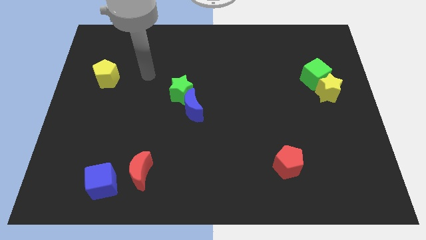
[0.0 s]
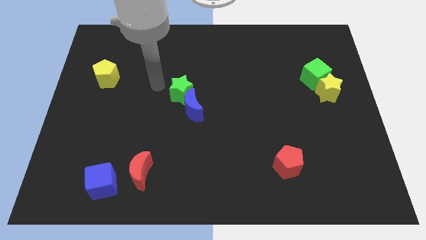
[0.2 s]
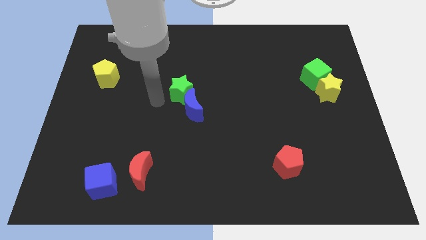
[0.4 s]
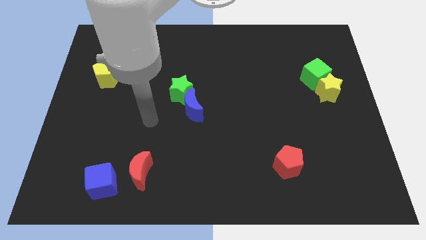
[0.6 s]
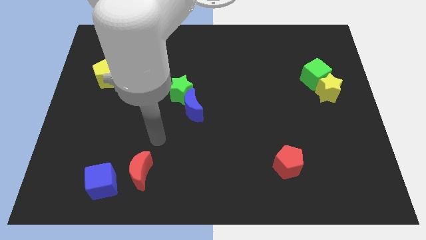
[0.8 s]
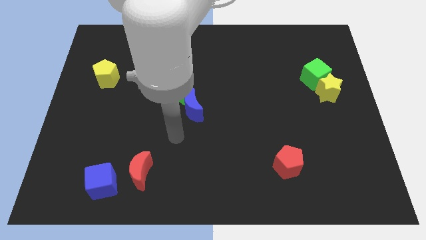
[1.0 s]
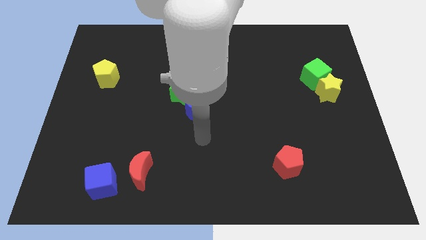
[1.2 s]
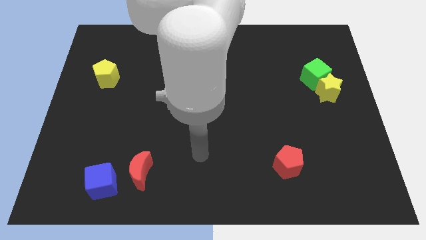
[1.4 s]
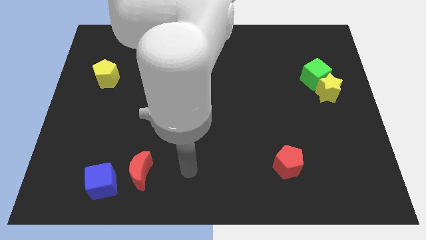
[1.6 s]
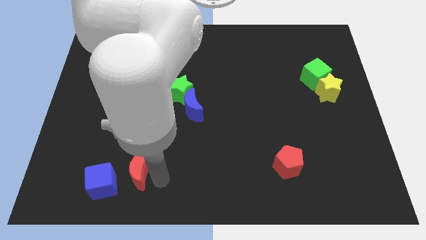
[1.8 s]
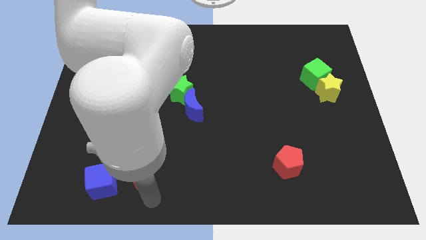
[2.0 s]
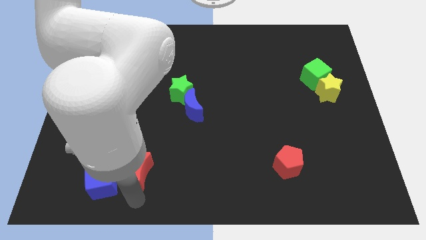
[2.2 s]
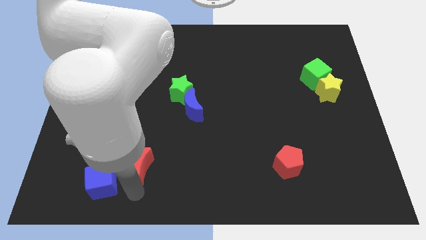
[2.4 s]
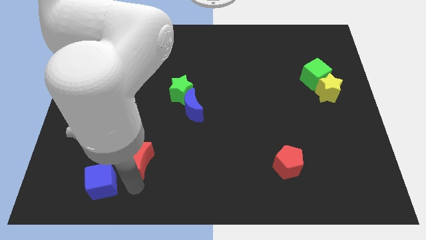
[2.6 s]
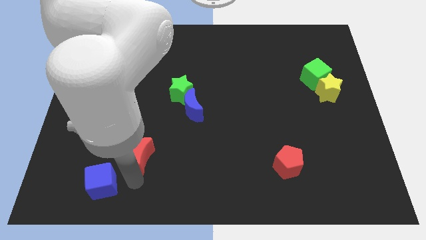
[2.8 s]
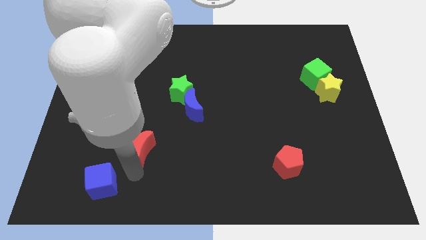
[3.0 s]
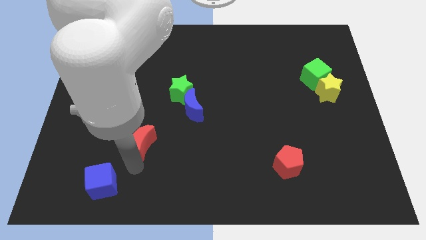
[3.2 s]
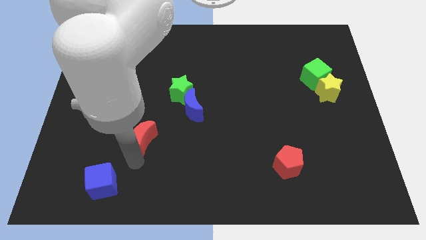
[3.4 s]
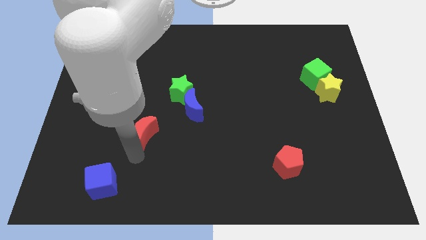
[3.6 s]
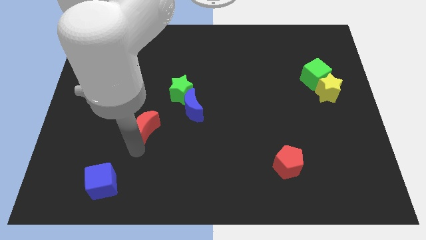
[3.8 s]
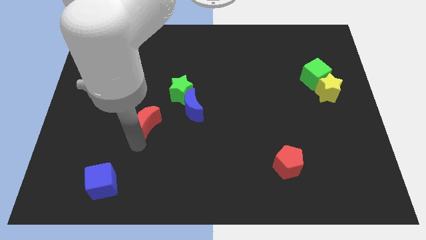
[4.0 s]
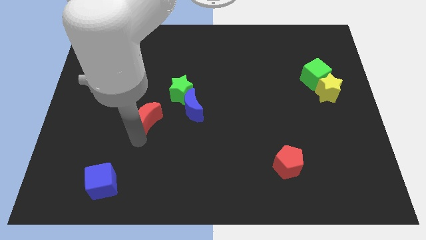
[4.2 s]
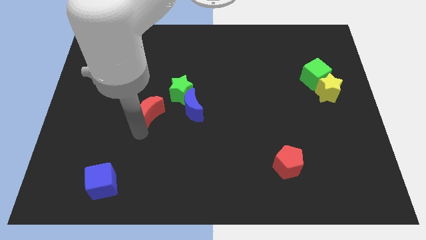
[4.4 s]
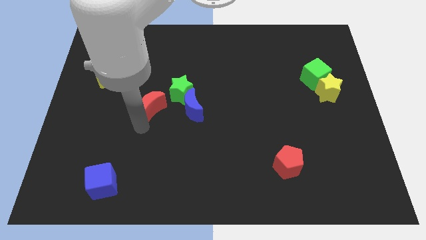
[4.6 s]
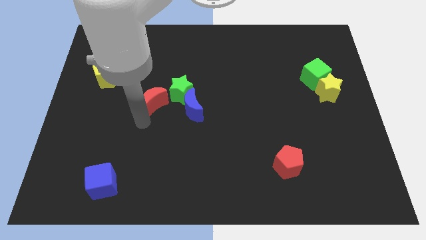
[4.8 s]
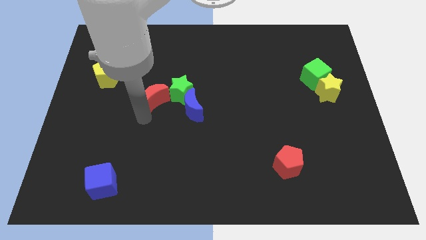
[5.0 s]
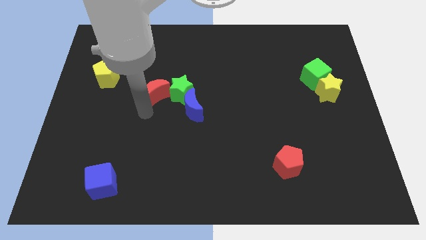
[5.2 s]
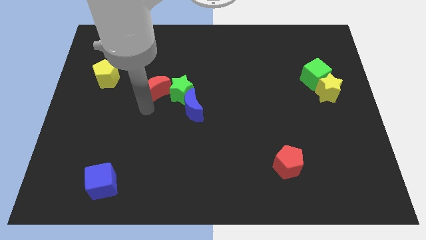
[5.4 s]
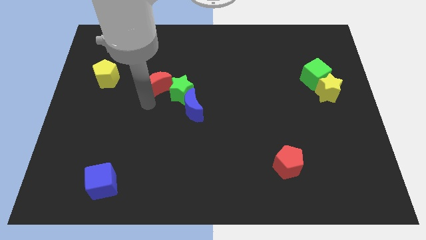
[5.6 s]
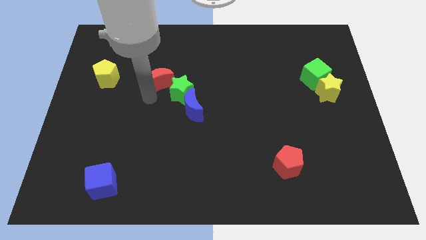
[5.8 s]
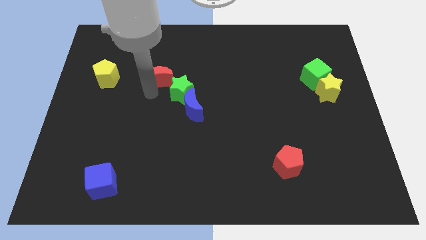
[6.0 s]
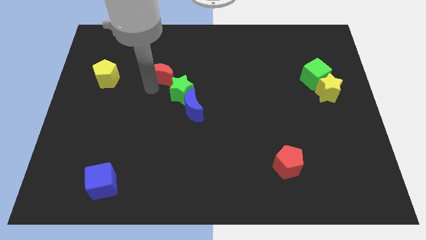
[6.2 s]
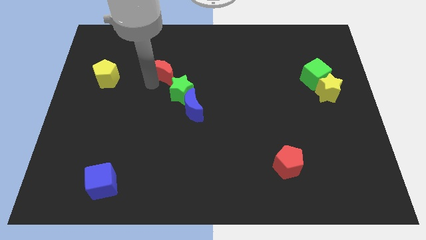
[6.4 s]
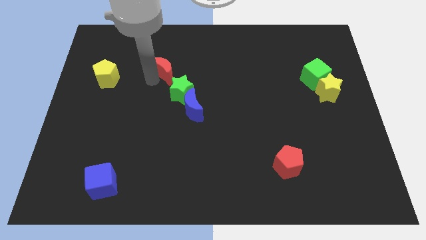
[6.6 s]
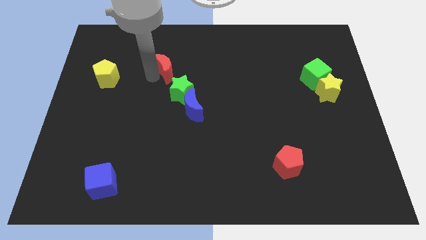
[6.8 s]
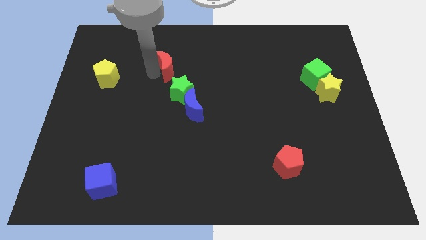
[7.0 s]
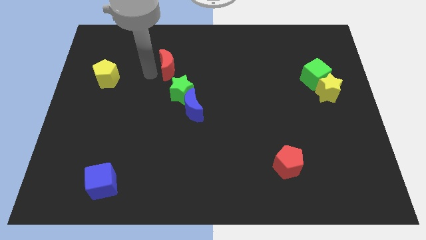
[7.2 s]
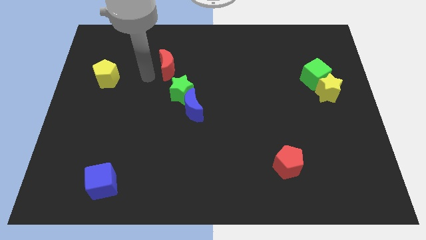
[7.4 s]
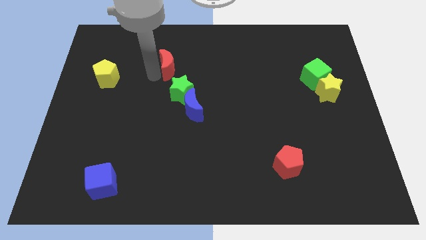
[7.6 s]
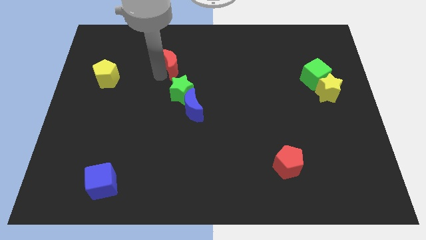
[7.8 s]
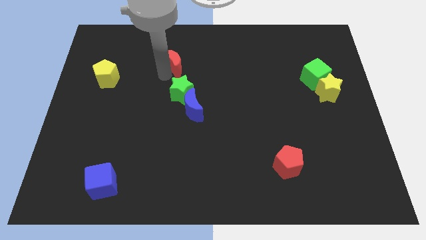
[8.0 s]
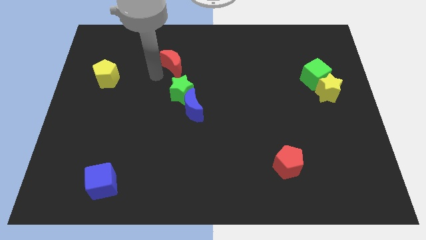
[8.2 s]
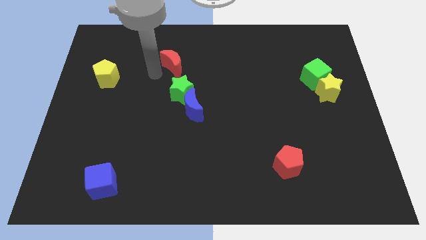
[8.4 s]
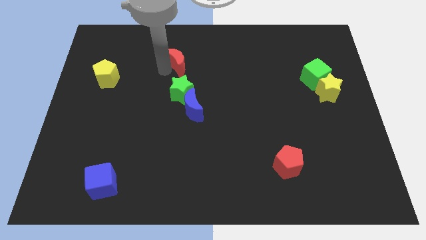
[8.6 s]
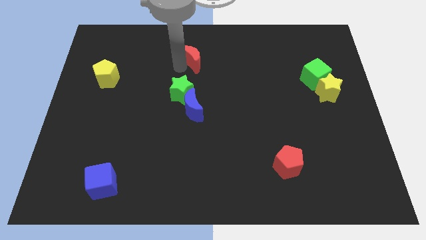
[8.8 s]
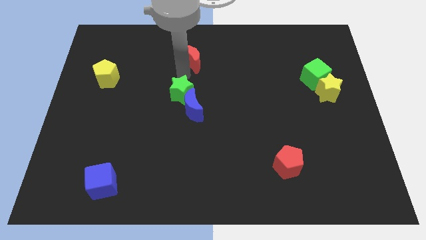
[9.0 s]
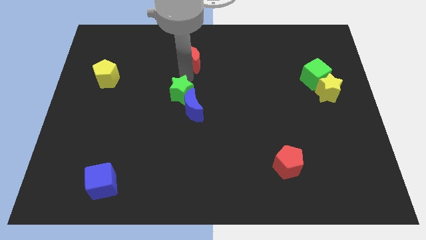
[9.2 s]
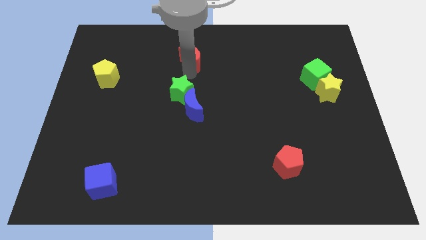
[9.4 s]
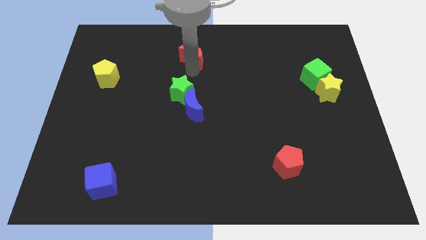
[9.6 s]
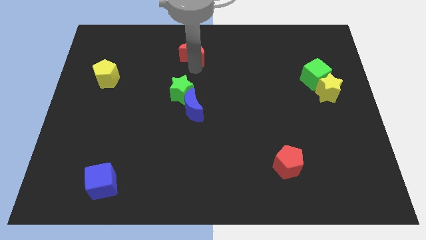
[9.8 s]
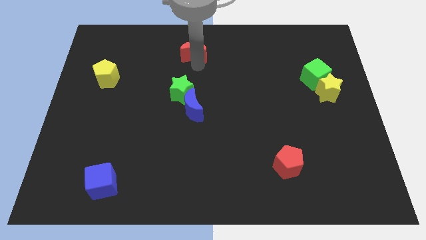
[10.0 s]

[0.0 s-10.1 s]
slide the red moon to the towards your base

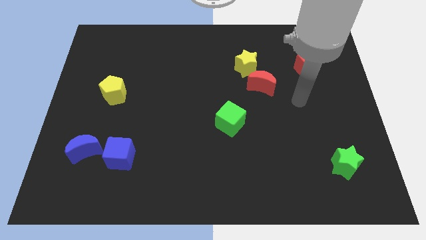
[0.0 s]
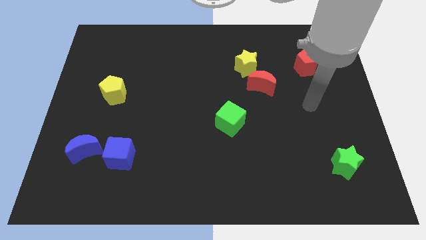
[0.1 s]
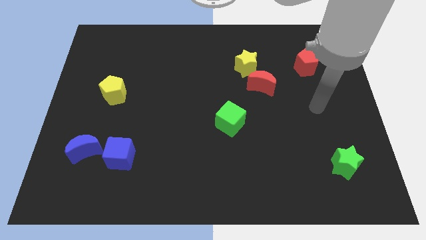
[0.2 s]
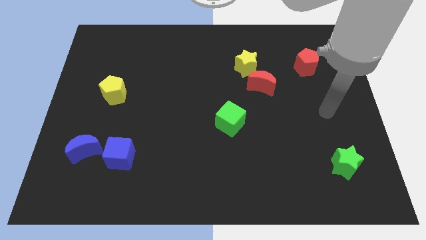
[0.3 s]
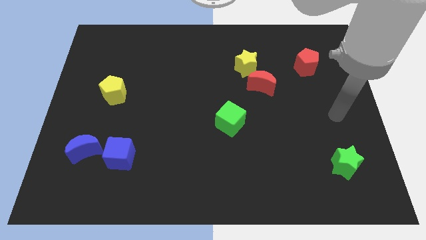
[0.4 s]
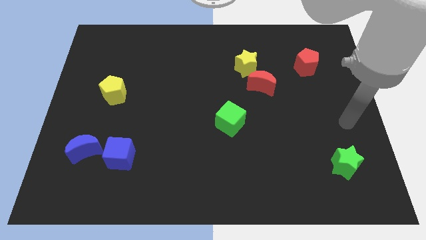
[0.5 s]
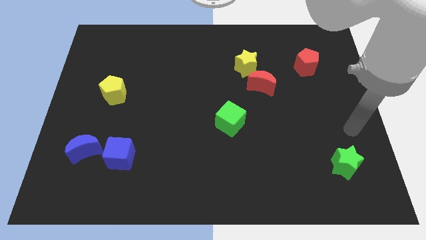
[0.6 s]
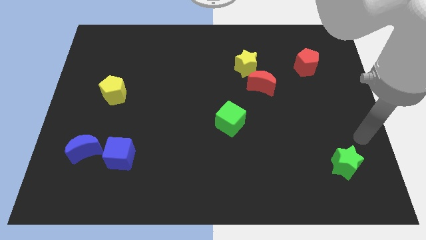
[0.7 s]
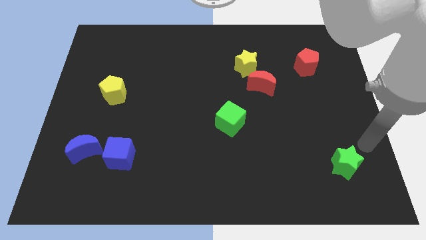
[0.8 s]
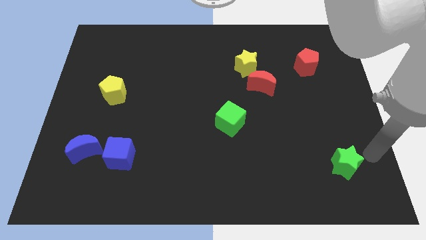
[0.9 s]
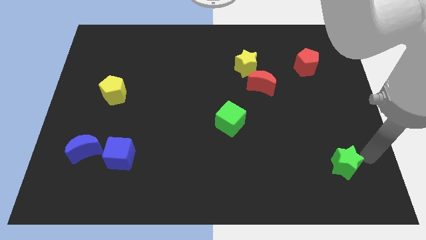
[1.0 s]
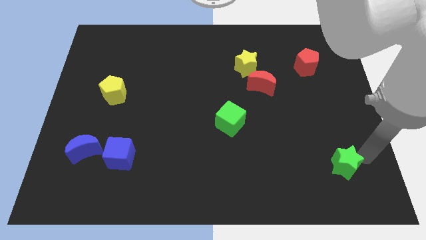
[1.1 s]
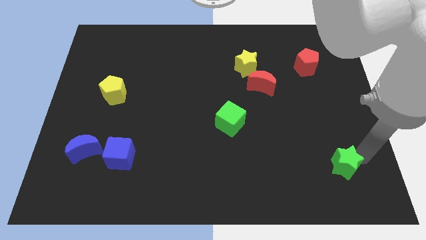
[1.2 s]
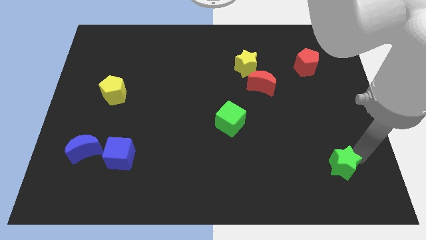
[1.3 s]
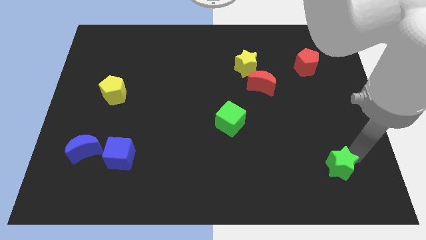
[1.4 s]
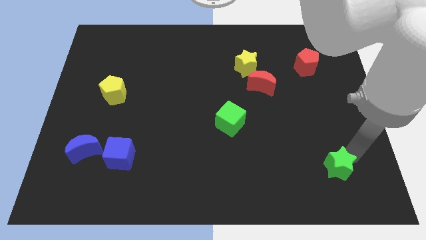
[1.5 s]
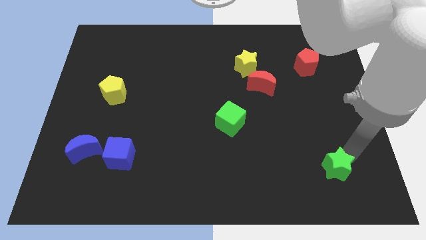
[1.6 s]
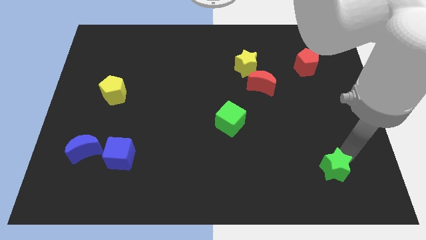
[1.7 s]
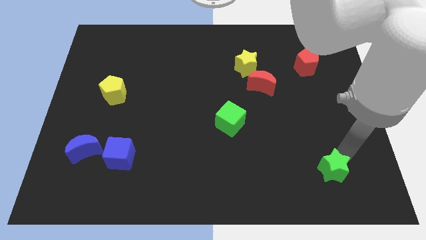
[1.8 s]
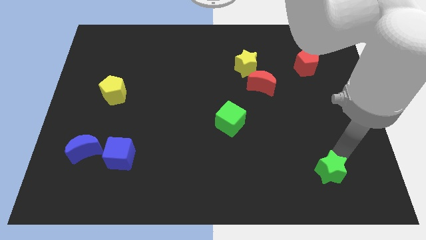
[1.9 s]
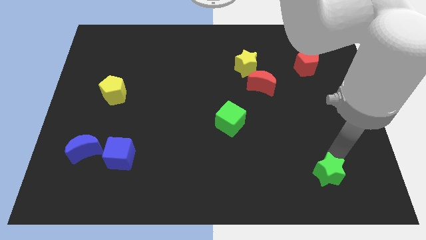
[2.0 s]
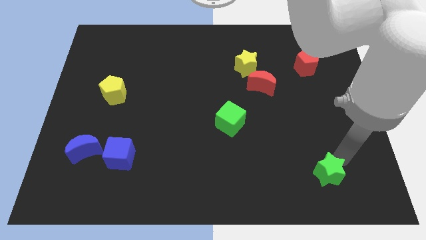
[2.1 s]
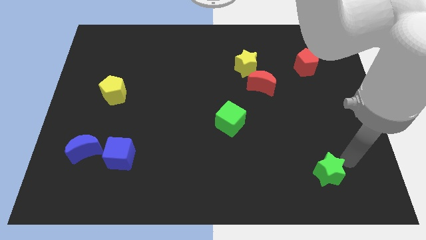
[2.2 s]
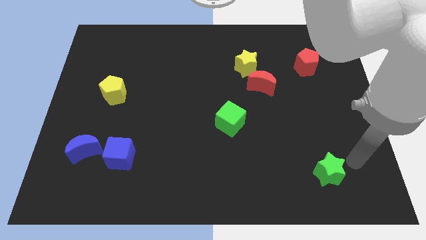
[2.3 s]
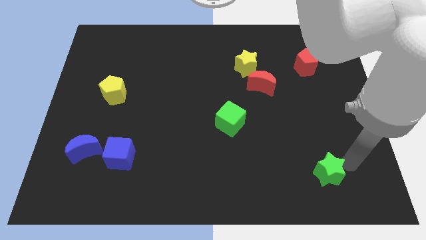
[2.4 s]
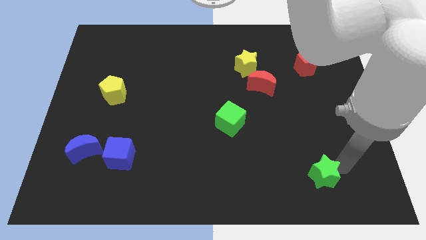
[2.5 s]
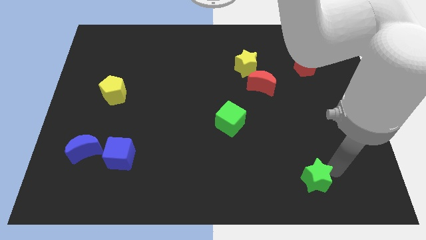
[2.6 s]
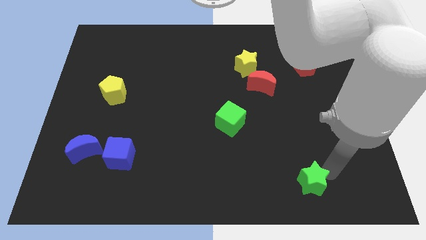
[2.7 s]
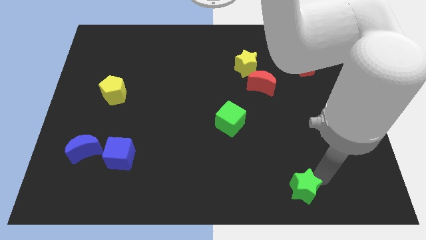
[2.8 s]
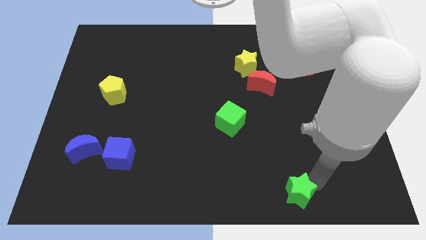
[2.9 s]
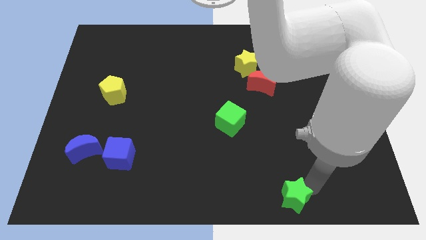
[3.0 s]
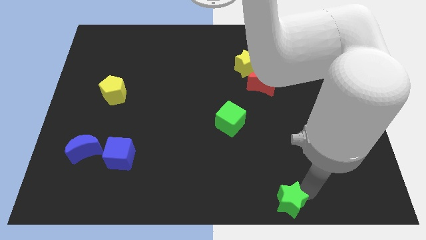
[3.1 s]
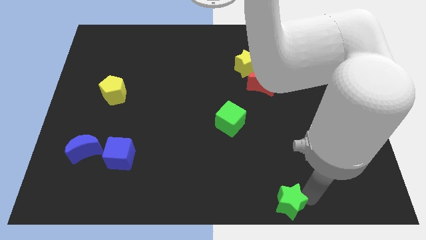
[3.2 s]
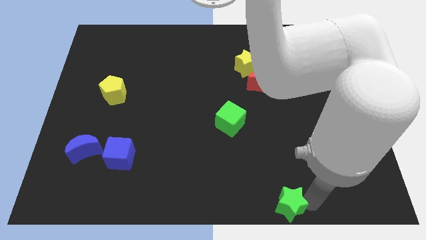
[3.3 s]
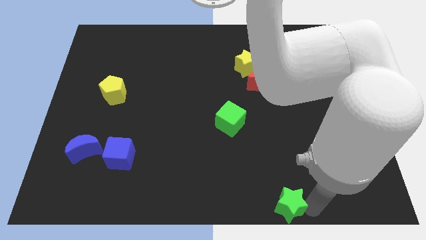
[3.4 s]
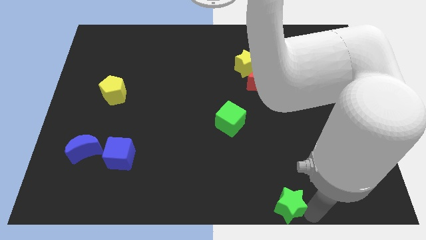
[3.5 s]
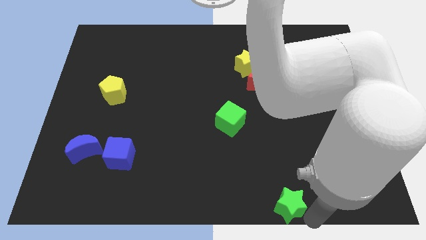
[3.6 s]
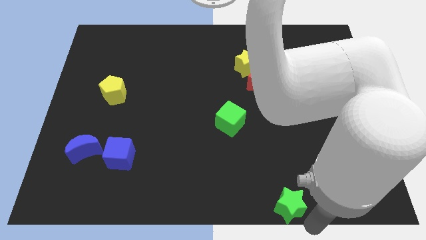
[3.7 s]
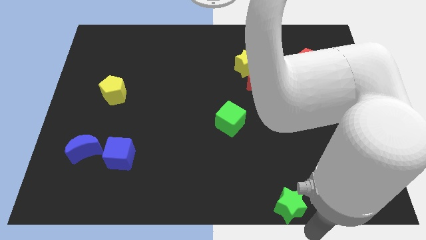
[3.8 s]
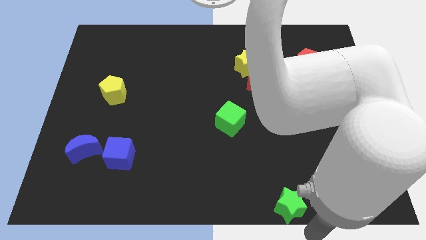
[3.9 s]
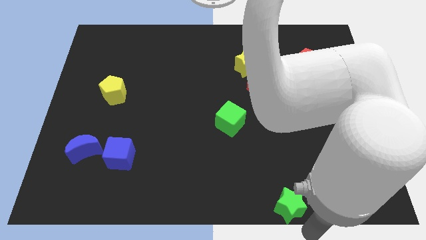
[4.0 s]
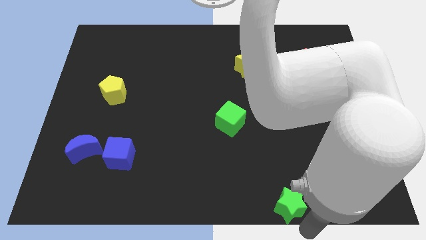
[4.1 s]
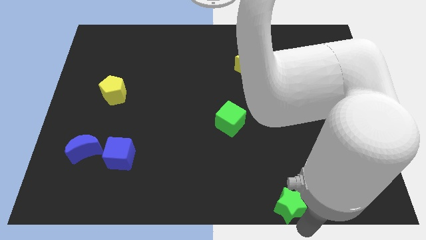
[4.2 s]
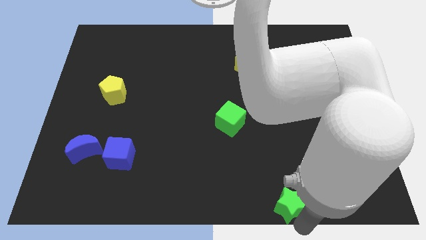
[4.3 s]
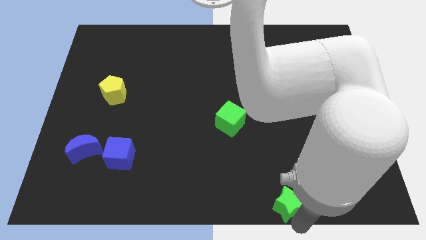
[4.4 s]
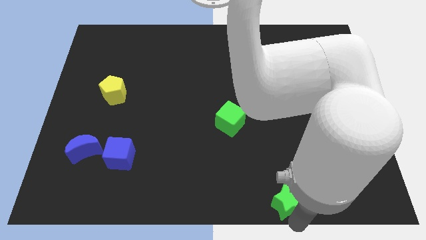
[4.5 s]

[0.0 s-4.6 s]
put the green star to the bottom side
